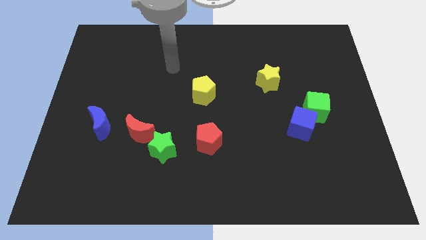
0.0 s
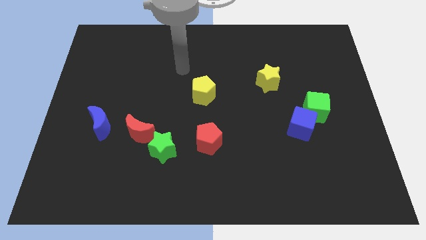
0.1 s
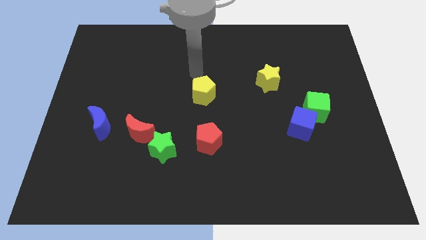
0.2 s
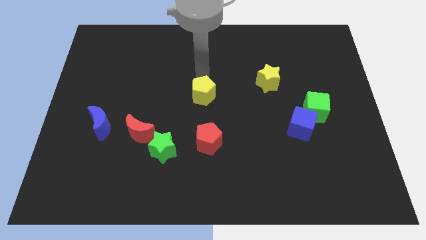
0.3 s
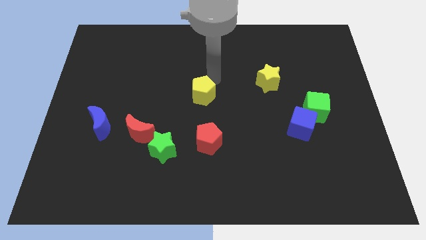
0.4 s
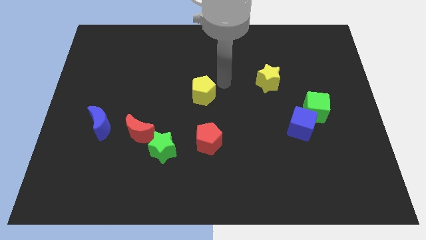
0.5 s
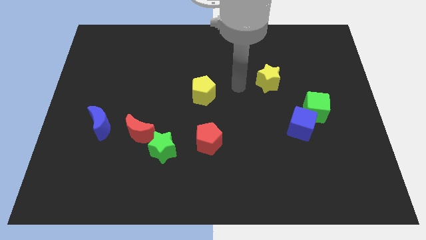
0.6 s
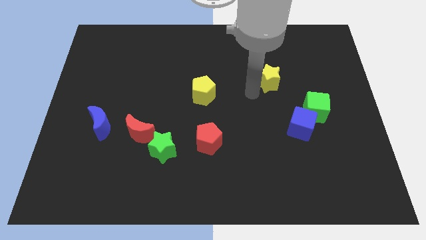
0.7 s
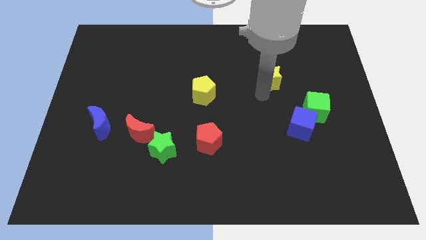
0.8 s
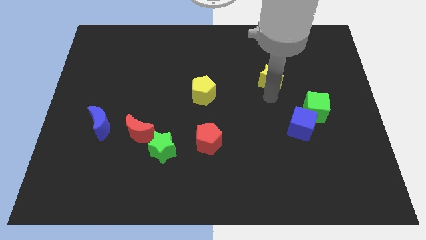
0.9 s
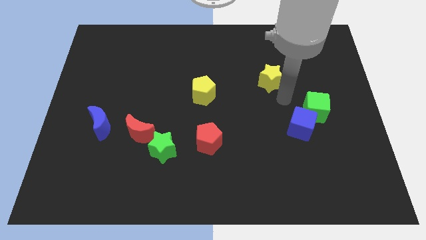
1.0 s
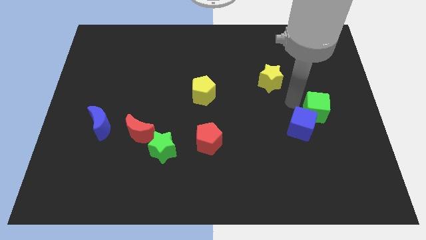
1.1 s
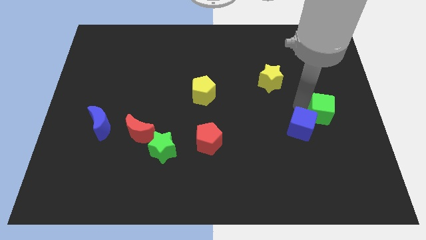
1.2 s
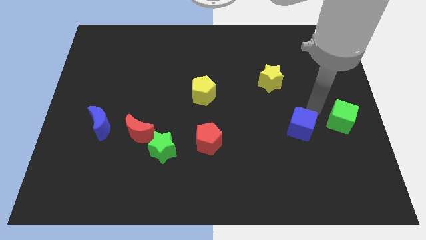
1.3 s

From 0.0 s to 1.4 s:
separate the blue cube from the green cube

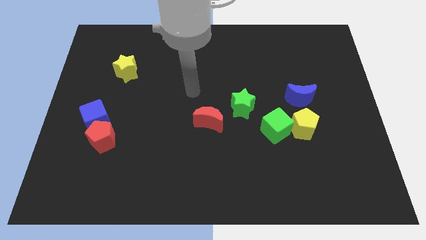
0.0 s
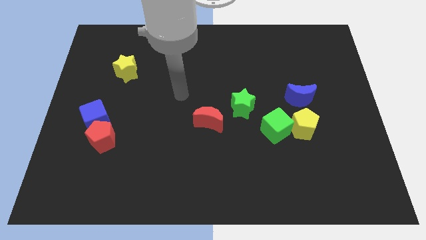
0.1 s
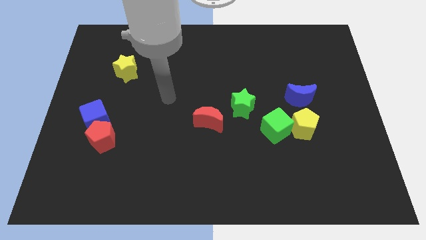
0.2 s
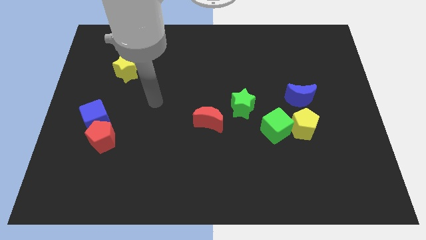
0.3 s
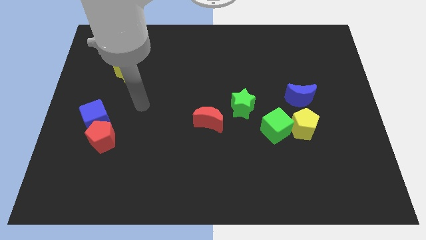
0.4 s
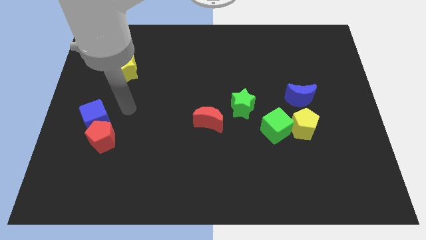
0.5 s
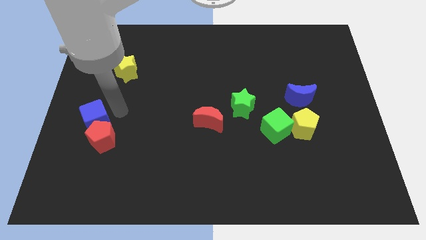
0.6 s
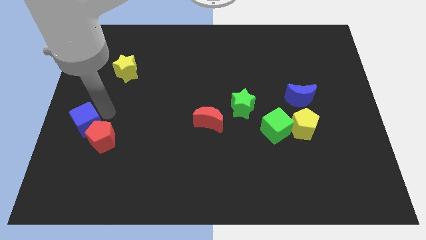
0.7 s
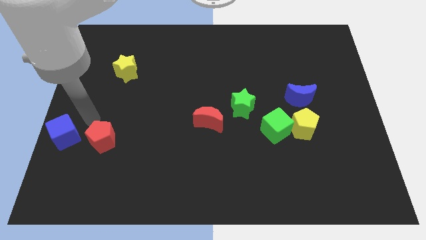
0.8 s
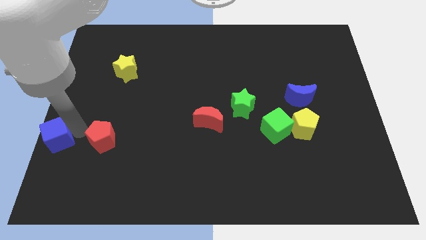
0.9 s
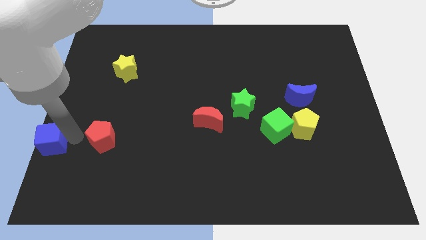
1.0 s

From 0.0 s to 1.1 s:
pull the red pentagon apart from the blue cube

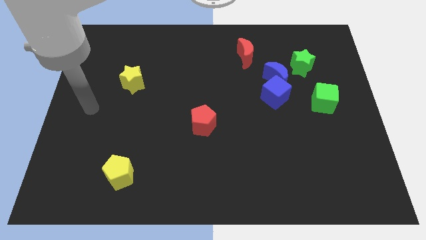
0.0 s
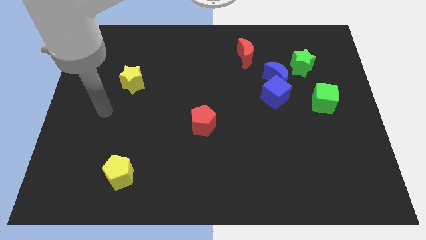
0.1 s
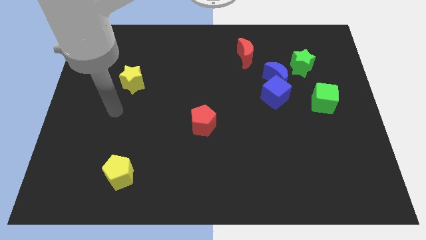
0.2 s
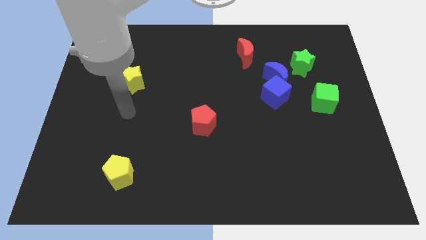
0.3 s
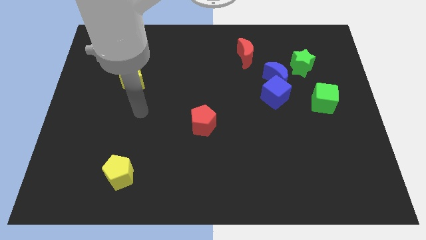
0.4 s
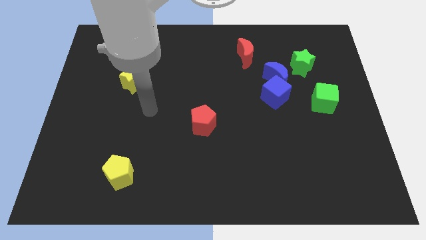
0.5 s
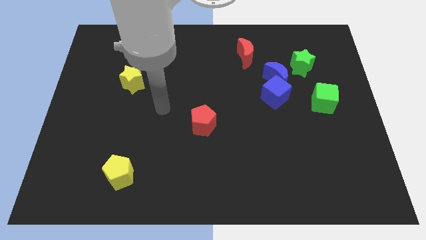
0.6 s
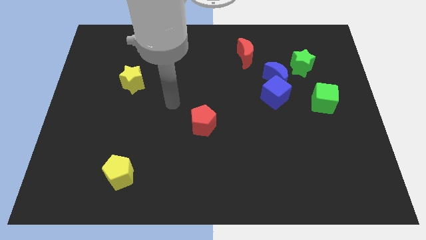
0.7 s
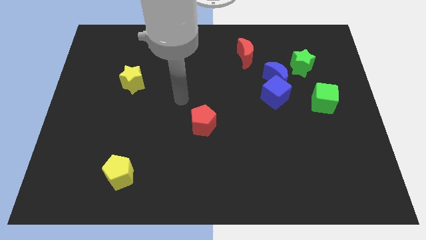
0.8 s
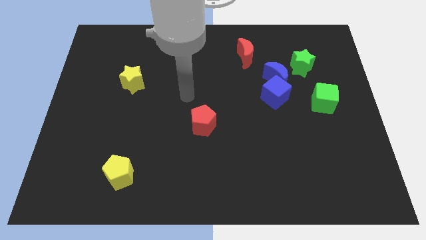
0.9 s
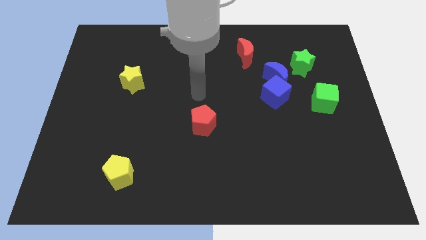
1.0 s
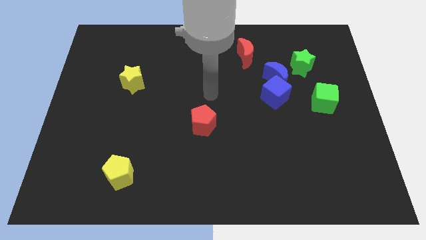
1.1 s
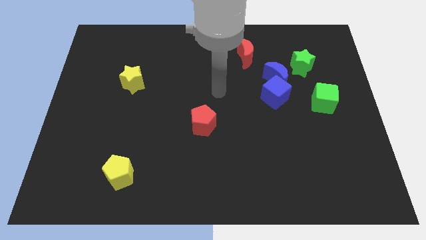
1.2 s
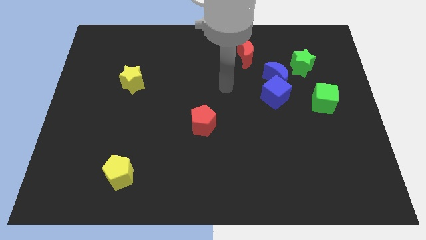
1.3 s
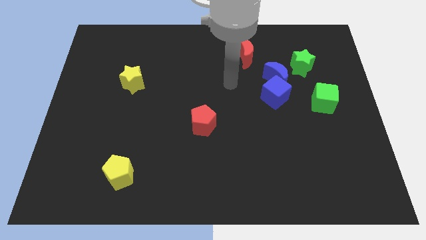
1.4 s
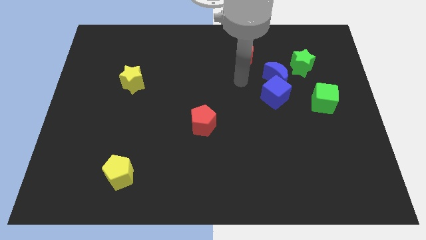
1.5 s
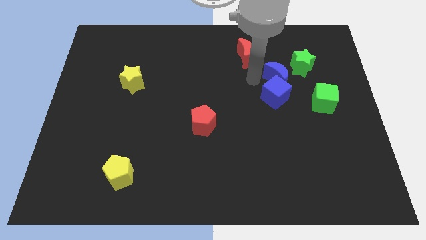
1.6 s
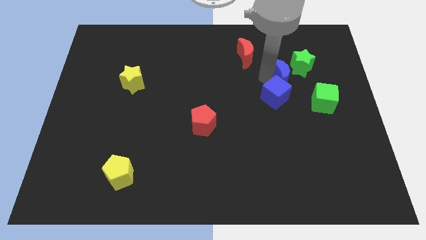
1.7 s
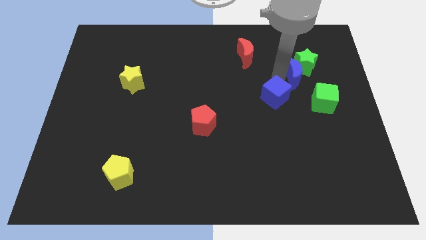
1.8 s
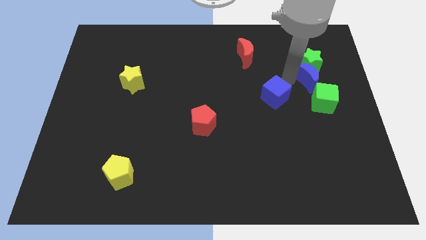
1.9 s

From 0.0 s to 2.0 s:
move the blue cube away from the blue moon

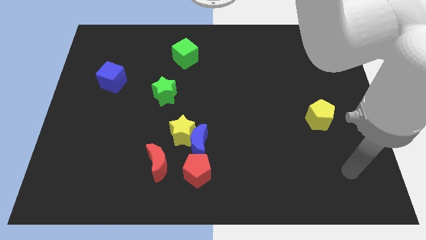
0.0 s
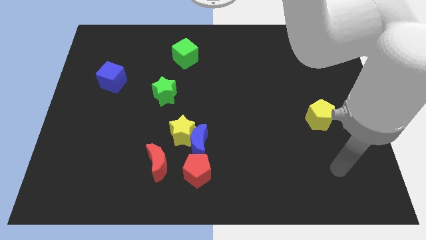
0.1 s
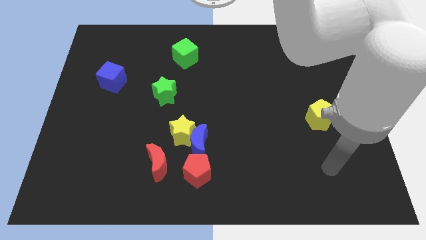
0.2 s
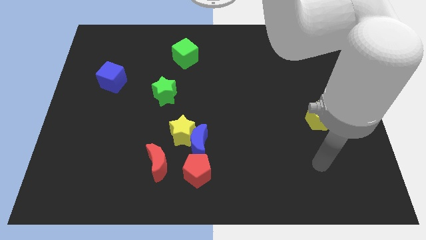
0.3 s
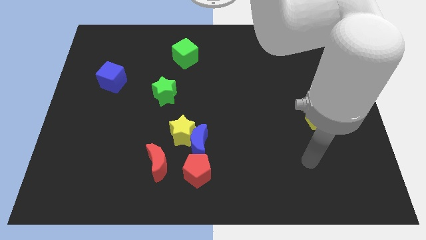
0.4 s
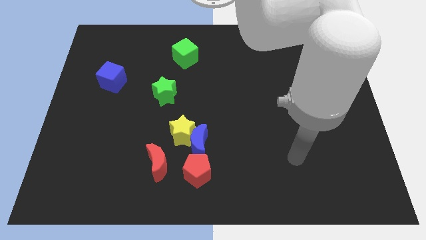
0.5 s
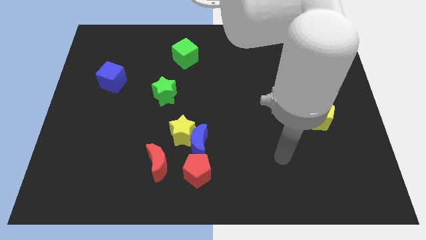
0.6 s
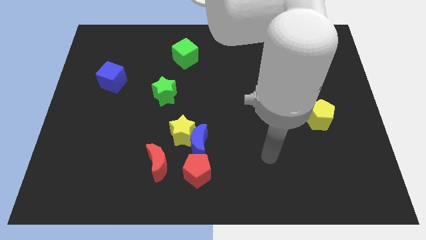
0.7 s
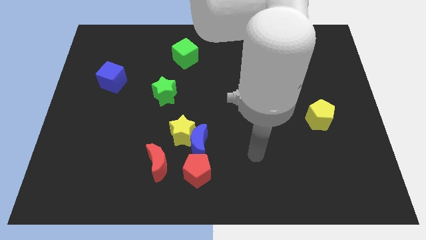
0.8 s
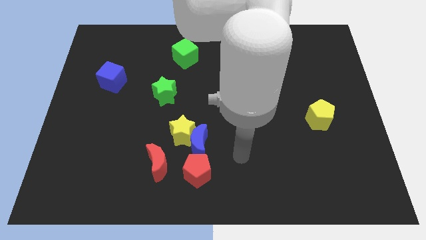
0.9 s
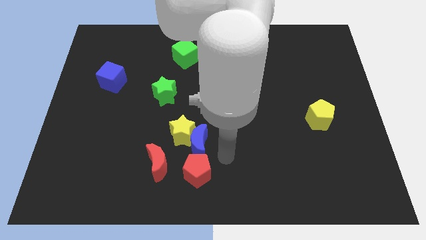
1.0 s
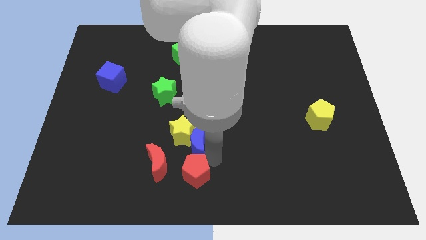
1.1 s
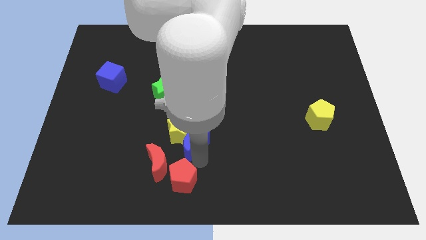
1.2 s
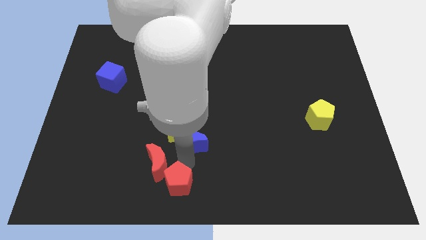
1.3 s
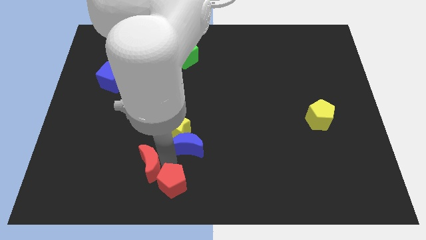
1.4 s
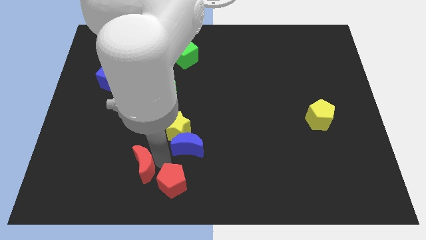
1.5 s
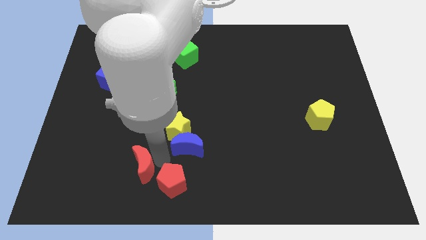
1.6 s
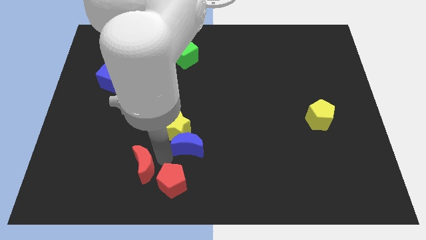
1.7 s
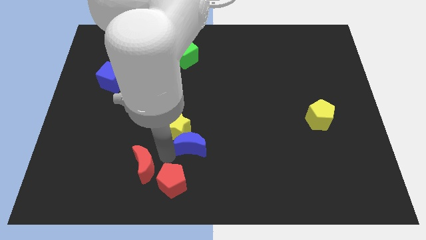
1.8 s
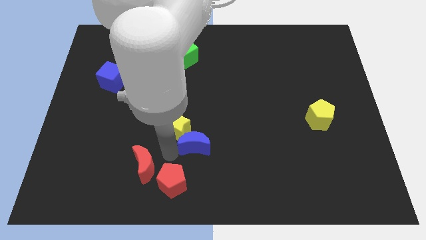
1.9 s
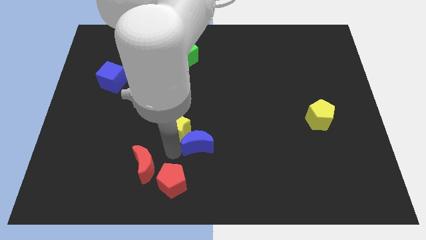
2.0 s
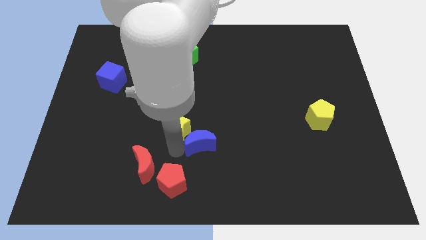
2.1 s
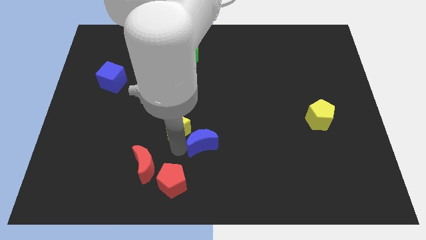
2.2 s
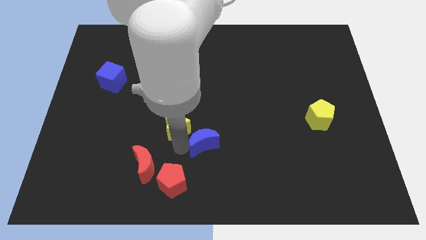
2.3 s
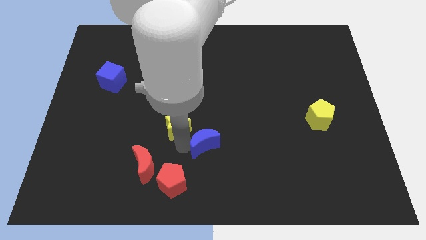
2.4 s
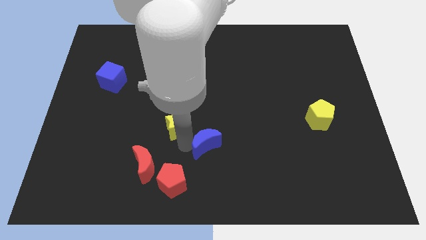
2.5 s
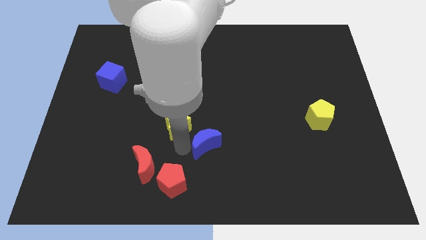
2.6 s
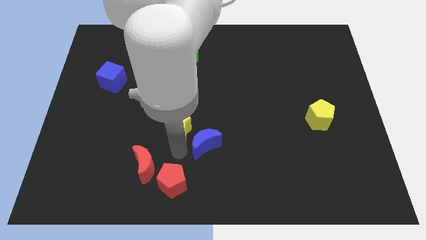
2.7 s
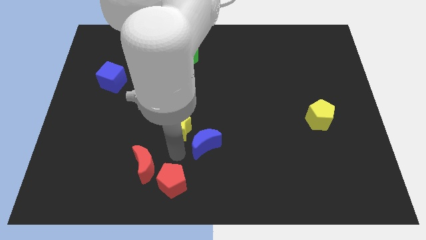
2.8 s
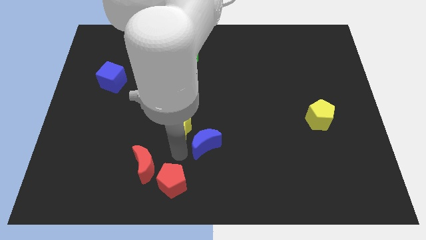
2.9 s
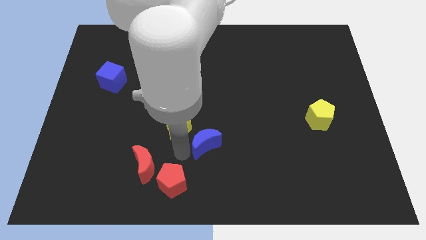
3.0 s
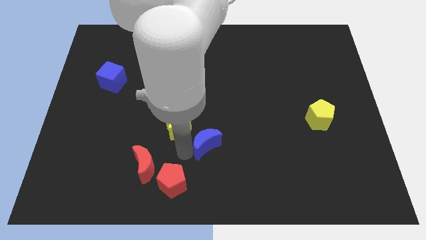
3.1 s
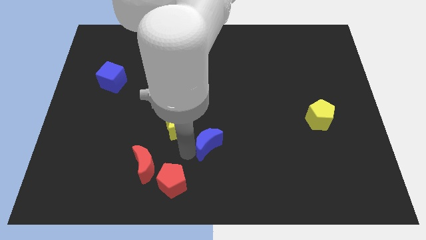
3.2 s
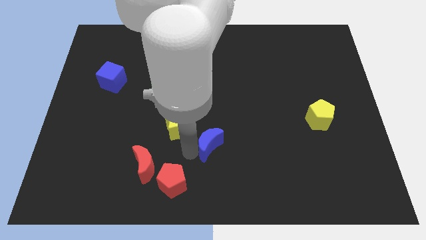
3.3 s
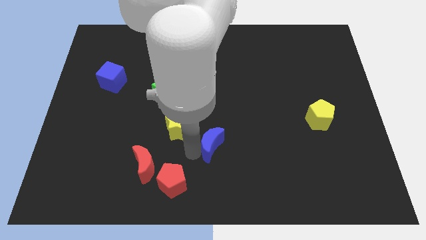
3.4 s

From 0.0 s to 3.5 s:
move the blue moon away from the group of blocks

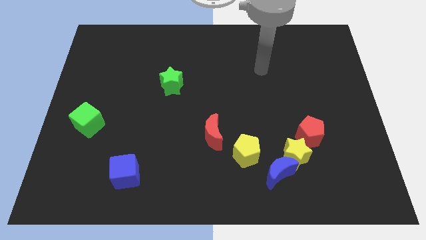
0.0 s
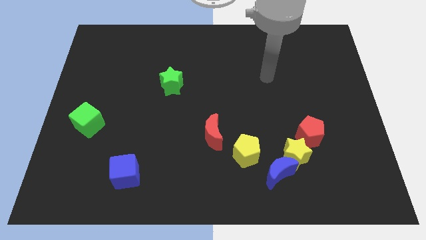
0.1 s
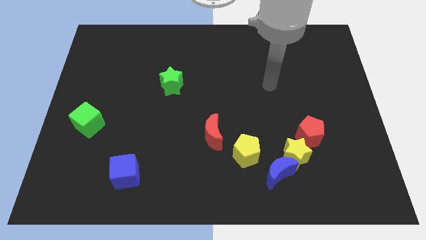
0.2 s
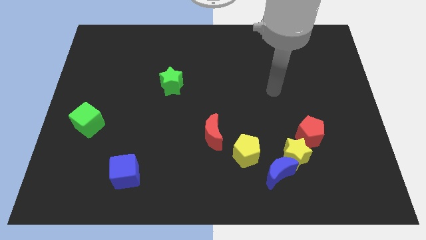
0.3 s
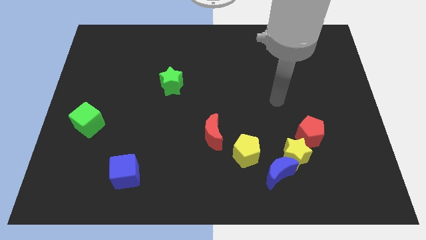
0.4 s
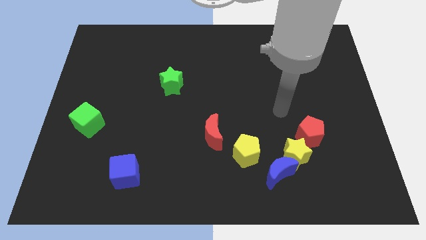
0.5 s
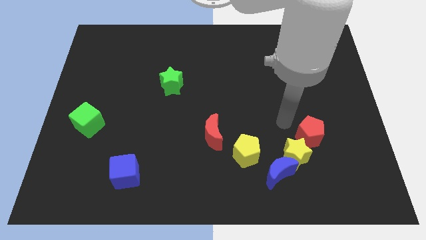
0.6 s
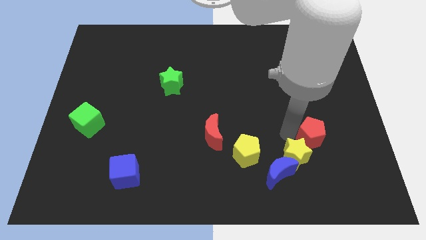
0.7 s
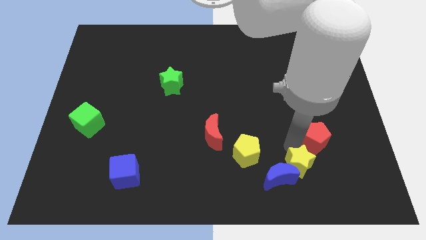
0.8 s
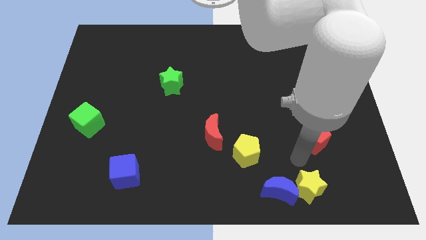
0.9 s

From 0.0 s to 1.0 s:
move the red pentagon away from the yellow star

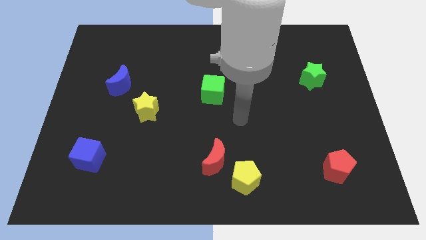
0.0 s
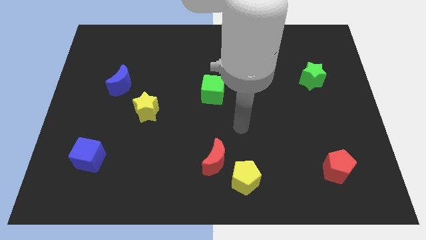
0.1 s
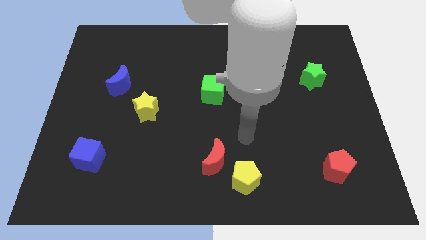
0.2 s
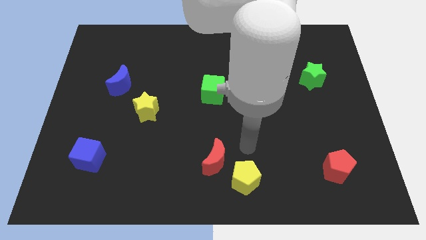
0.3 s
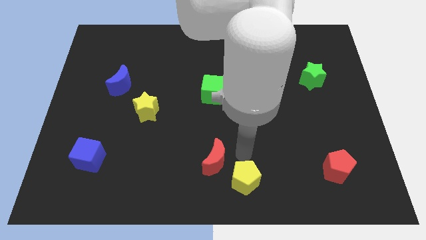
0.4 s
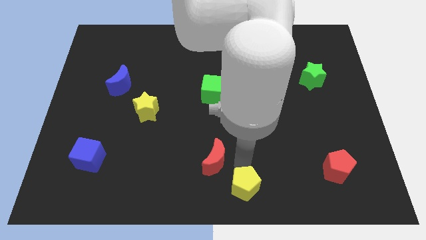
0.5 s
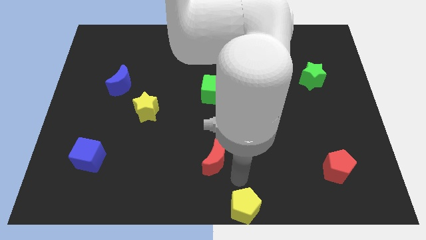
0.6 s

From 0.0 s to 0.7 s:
separate the red moon from the yellow pentagon
